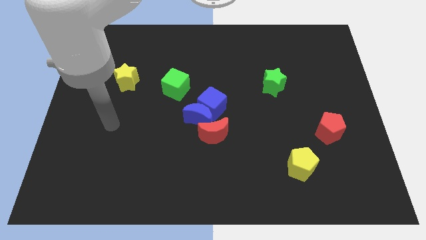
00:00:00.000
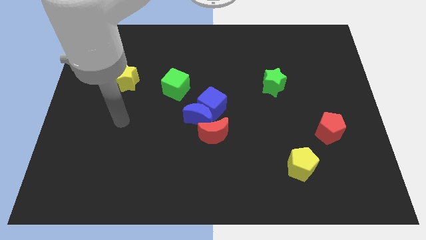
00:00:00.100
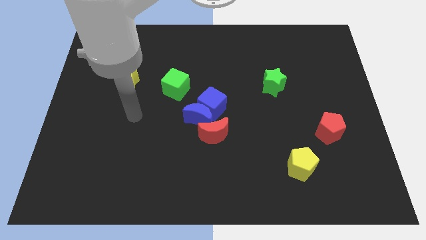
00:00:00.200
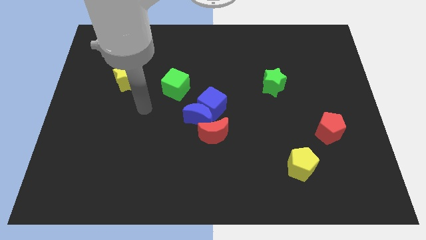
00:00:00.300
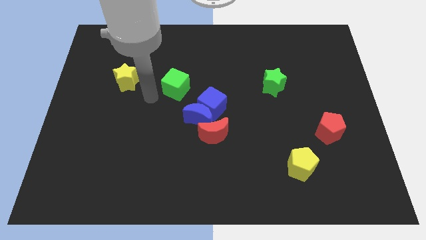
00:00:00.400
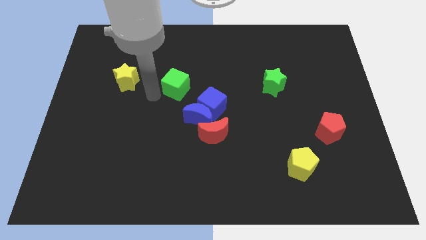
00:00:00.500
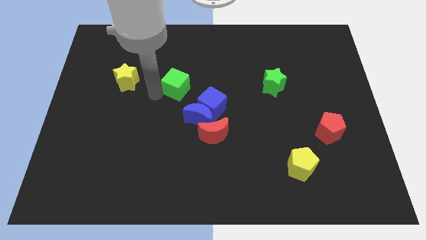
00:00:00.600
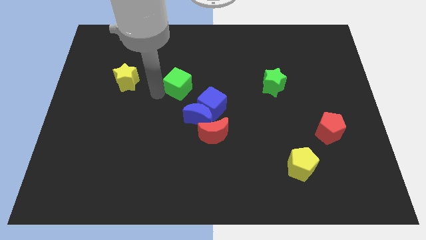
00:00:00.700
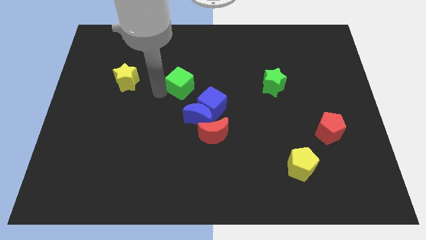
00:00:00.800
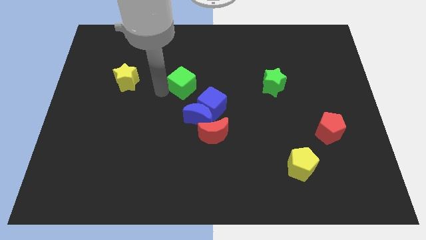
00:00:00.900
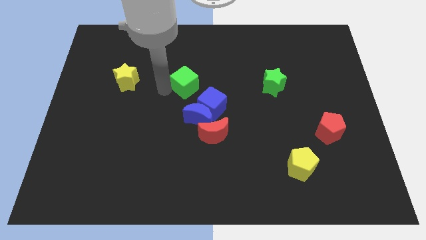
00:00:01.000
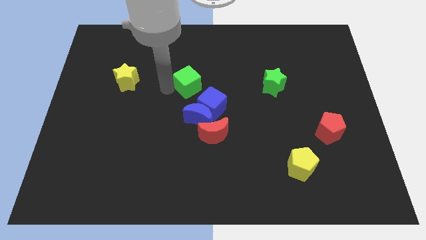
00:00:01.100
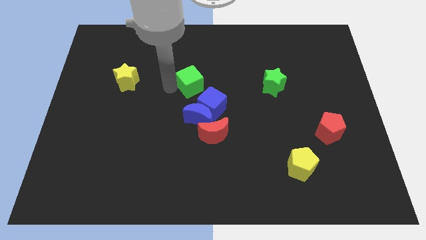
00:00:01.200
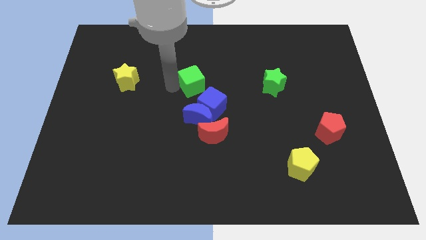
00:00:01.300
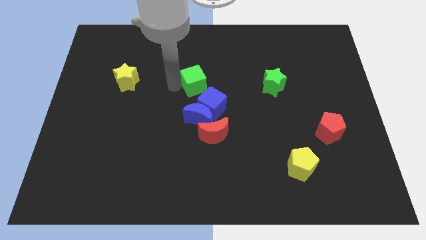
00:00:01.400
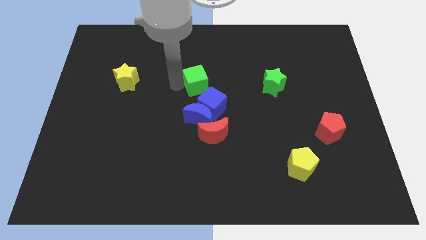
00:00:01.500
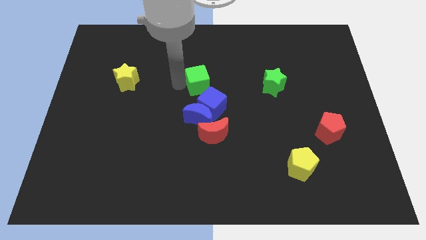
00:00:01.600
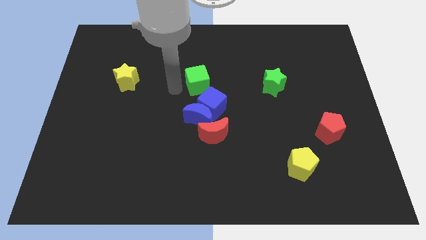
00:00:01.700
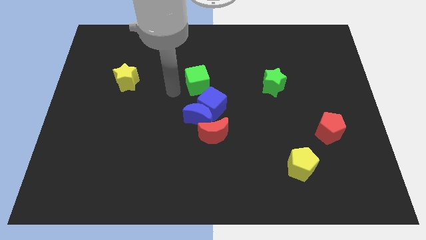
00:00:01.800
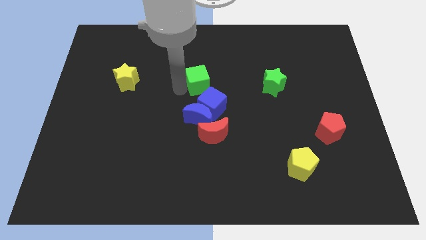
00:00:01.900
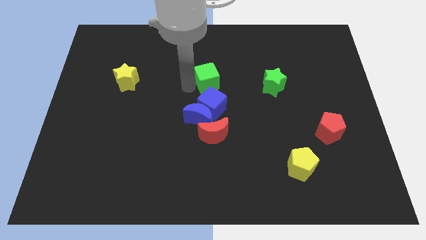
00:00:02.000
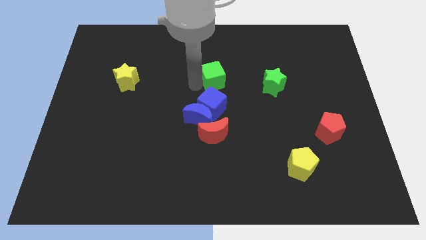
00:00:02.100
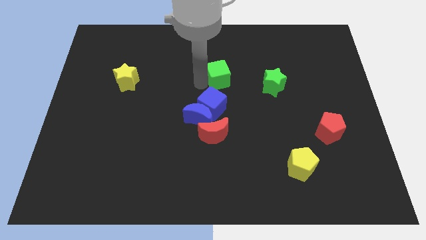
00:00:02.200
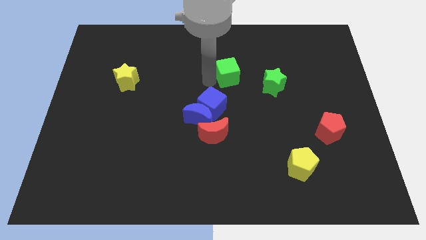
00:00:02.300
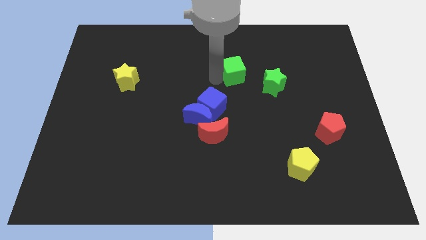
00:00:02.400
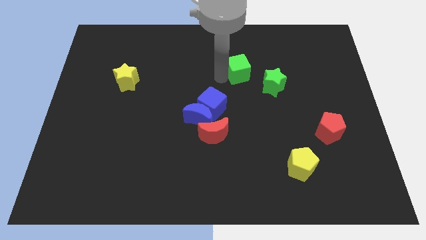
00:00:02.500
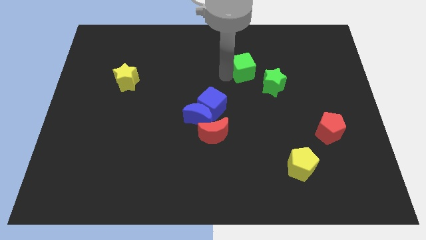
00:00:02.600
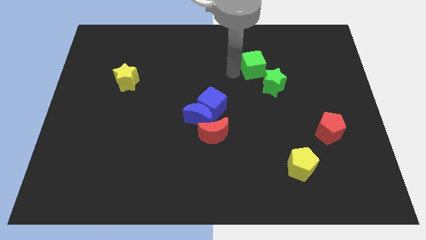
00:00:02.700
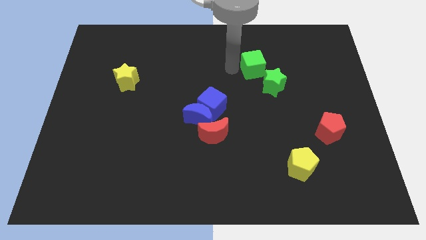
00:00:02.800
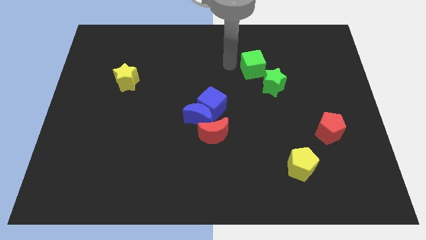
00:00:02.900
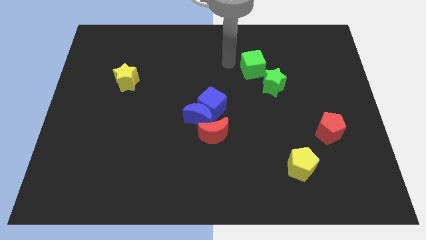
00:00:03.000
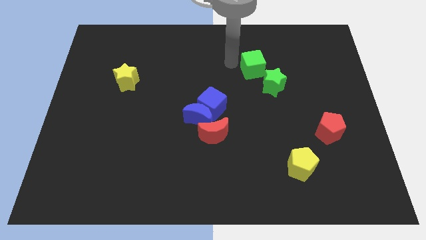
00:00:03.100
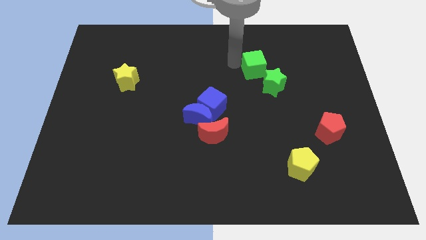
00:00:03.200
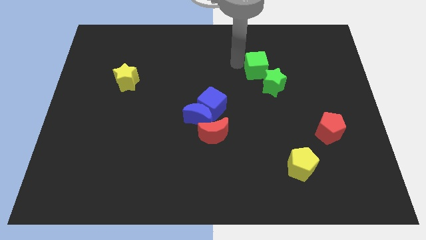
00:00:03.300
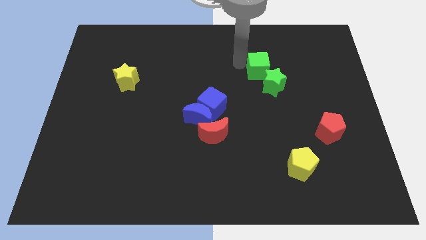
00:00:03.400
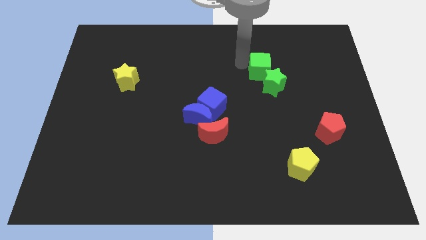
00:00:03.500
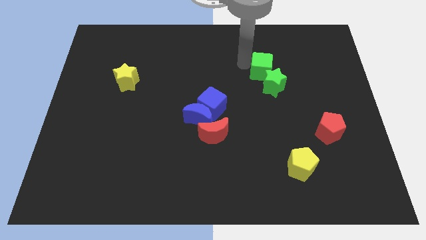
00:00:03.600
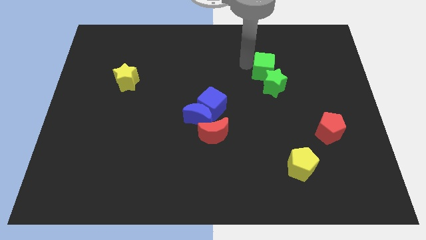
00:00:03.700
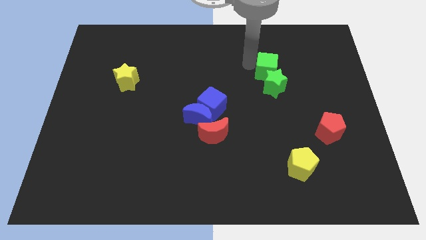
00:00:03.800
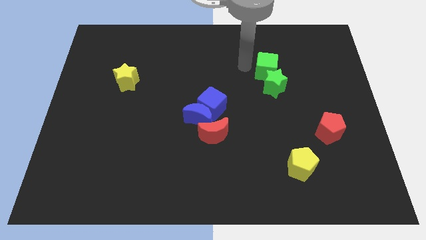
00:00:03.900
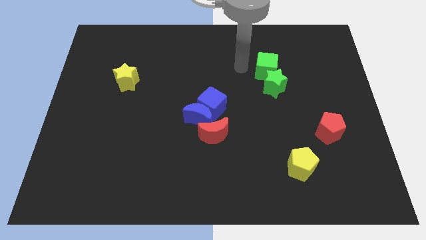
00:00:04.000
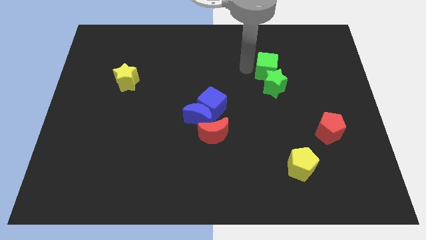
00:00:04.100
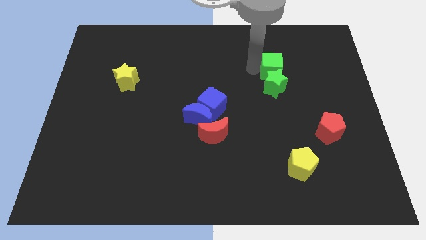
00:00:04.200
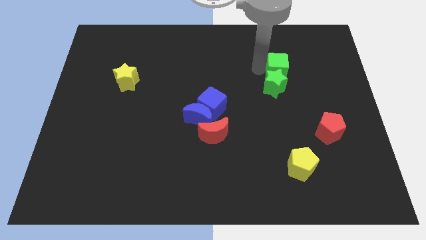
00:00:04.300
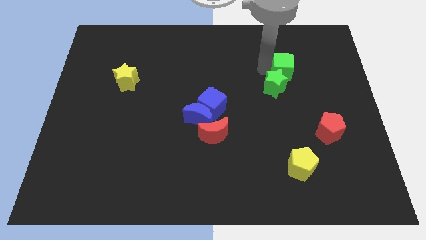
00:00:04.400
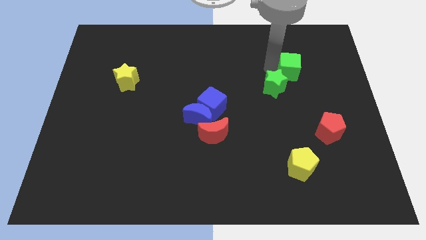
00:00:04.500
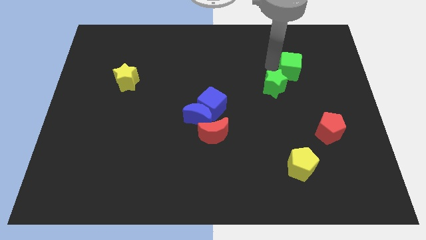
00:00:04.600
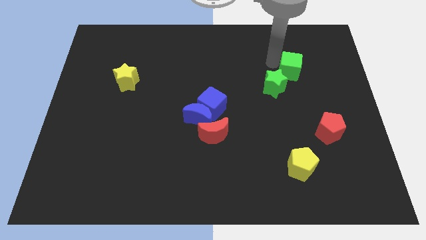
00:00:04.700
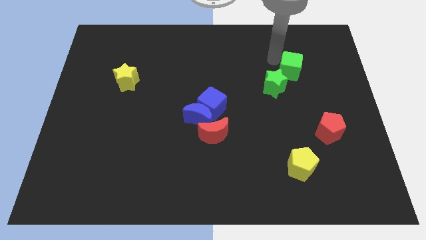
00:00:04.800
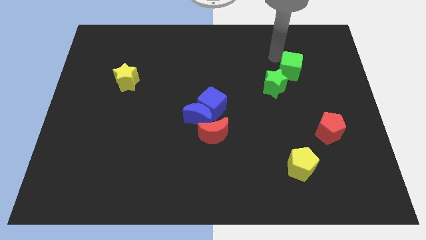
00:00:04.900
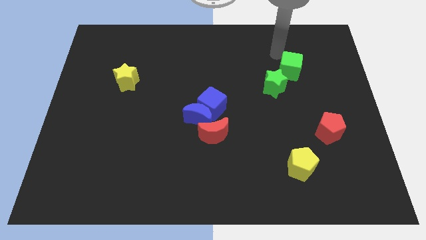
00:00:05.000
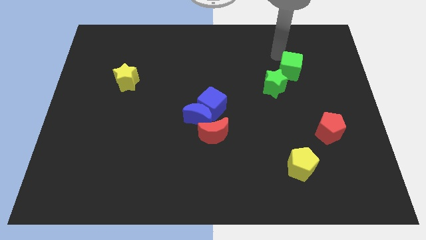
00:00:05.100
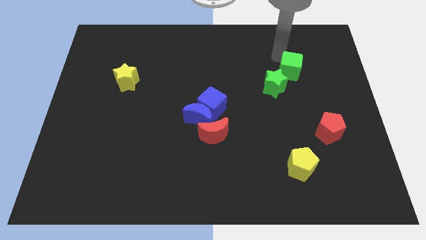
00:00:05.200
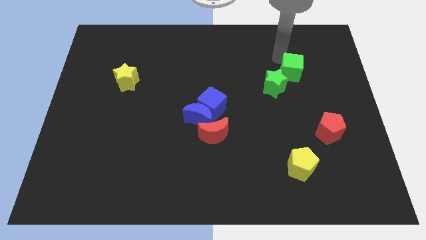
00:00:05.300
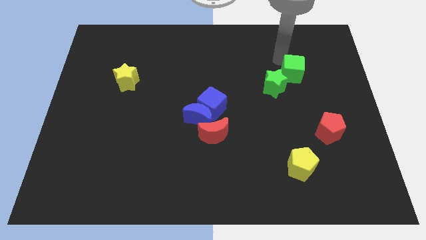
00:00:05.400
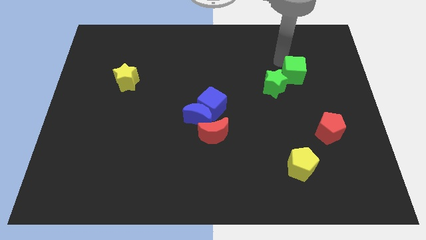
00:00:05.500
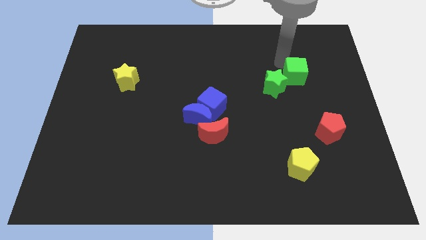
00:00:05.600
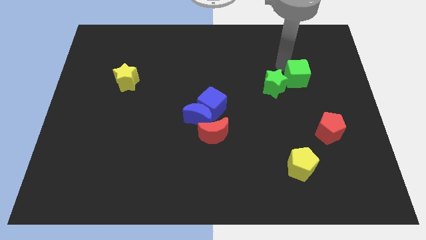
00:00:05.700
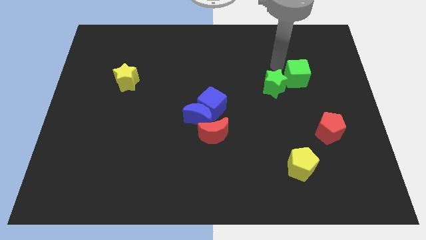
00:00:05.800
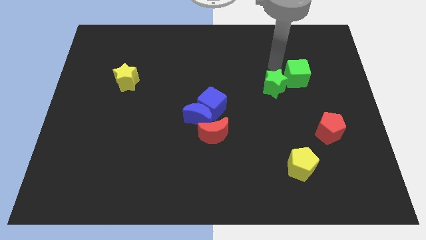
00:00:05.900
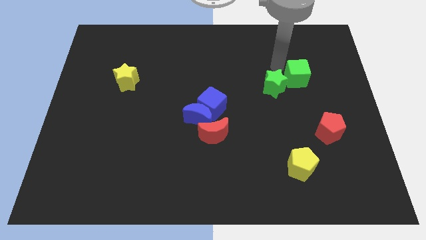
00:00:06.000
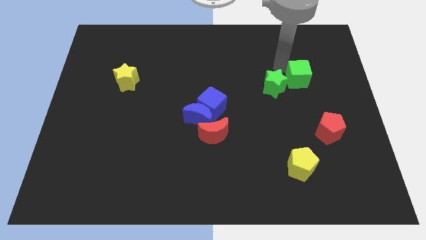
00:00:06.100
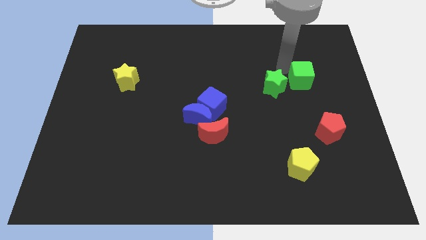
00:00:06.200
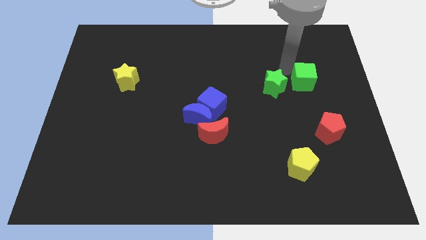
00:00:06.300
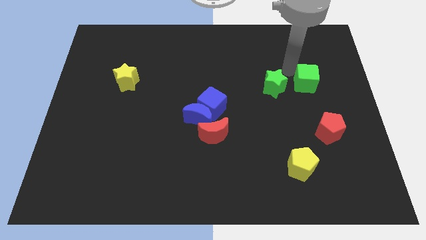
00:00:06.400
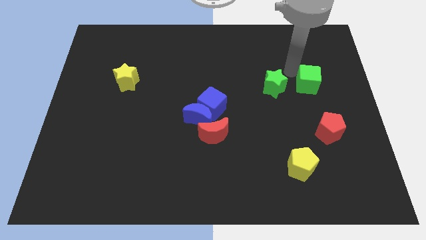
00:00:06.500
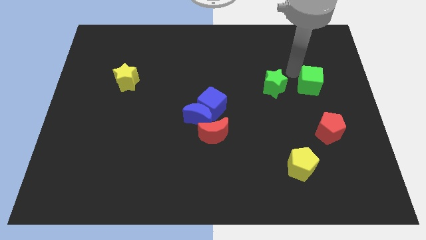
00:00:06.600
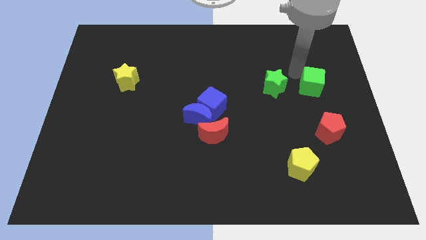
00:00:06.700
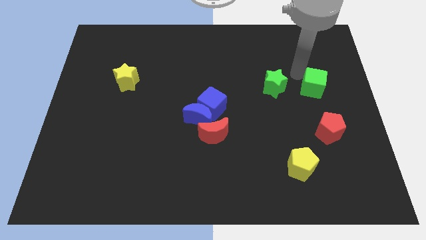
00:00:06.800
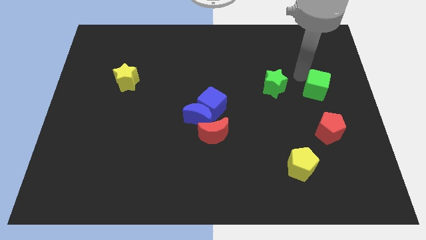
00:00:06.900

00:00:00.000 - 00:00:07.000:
put the green cube to the right side of the board
